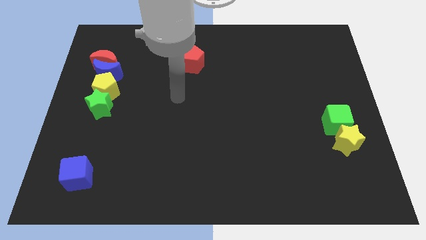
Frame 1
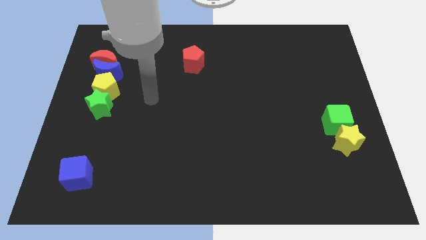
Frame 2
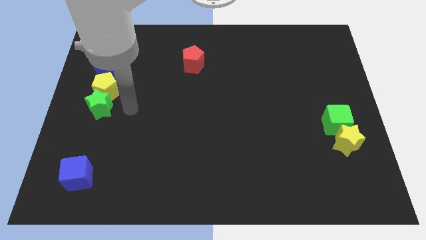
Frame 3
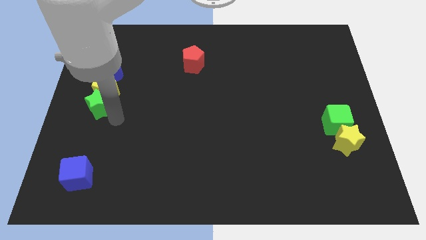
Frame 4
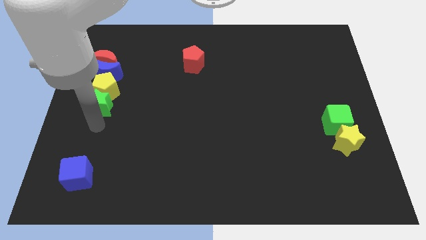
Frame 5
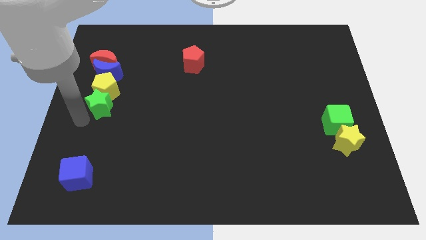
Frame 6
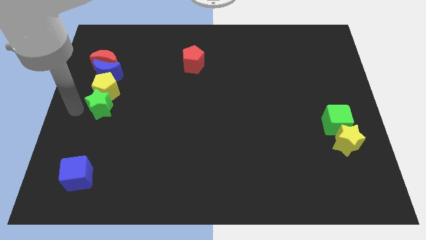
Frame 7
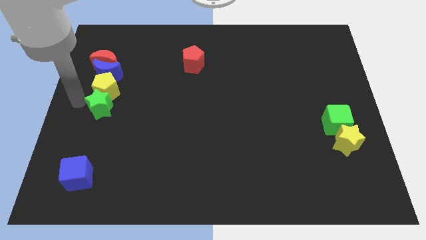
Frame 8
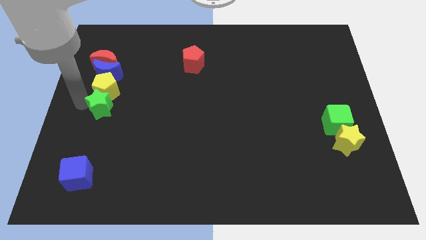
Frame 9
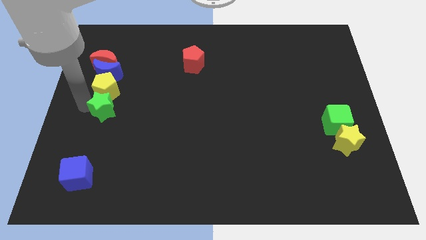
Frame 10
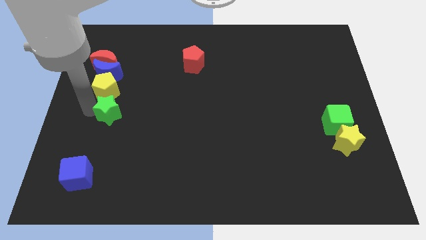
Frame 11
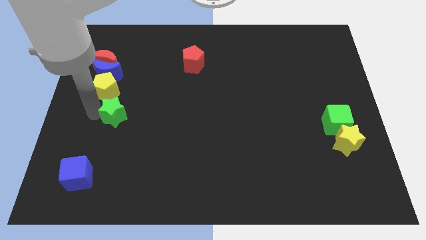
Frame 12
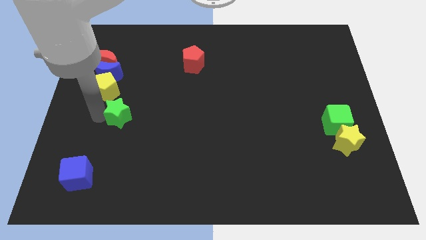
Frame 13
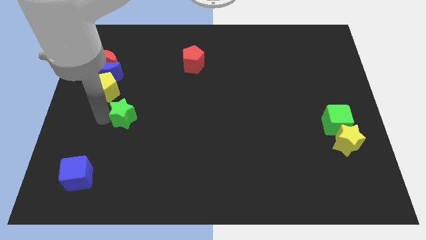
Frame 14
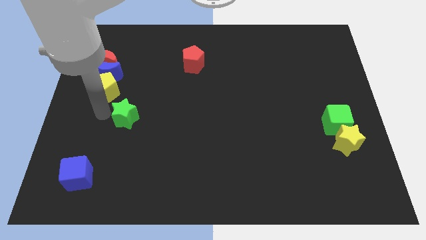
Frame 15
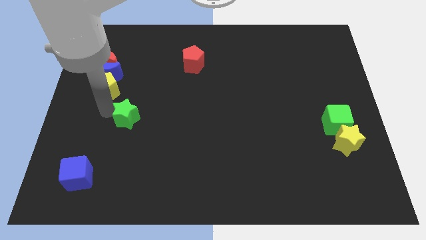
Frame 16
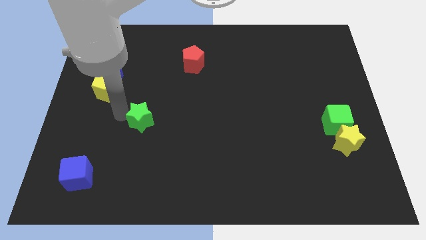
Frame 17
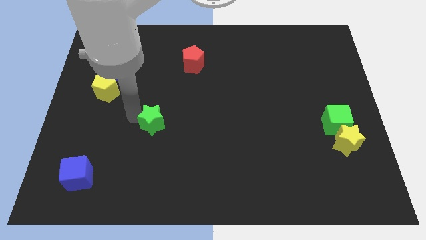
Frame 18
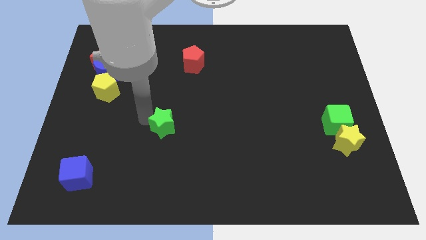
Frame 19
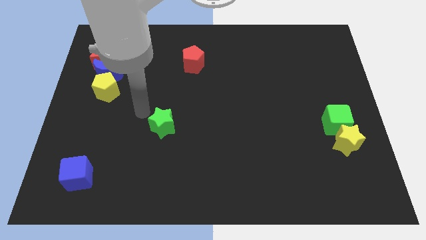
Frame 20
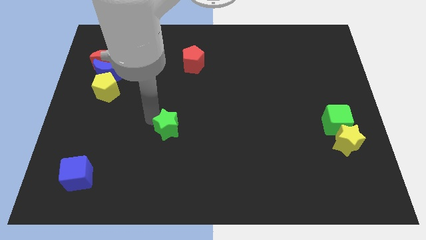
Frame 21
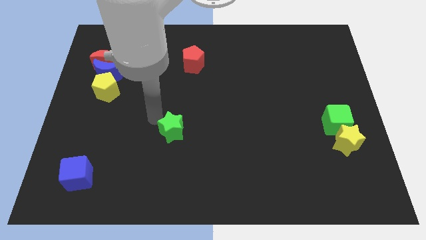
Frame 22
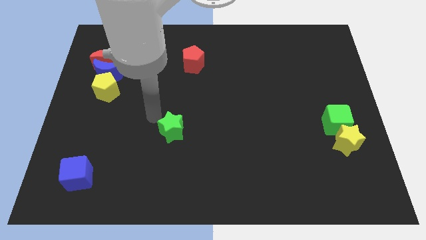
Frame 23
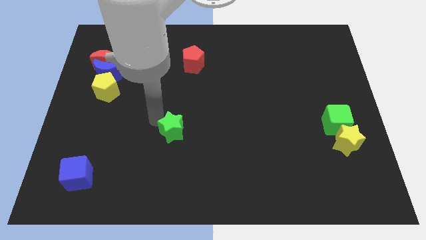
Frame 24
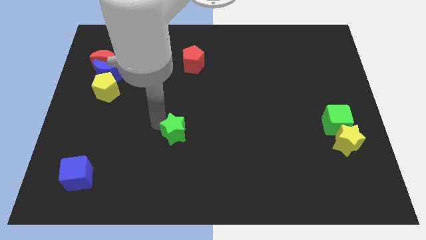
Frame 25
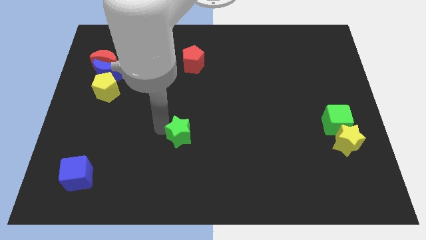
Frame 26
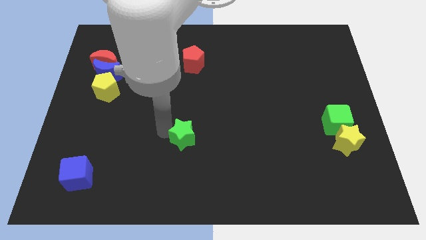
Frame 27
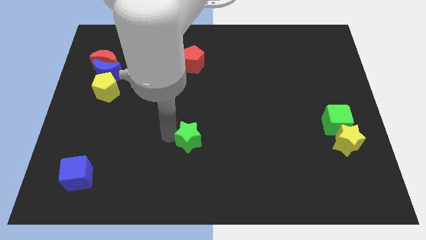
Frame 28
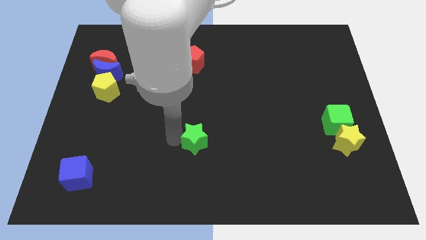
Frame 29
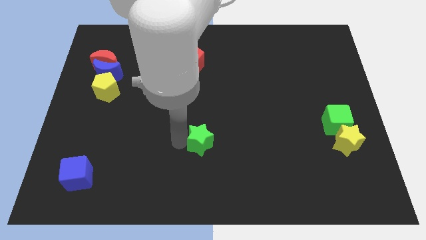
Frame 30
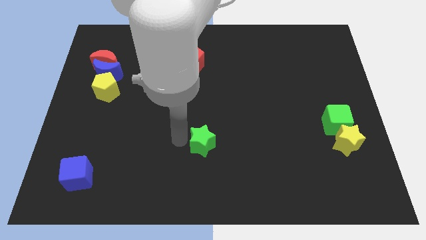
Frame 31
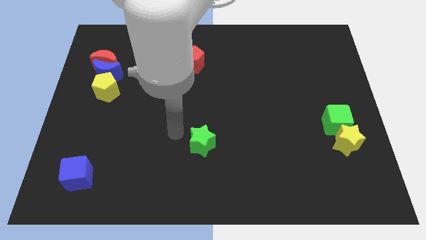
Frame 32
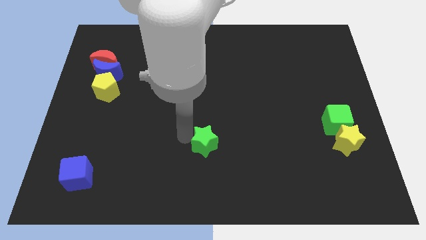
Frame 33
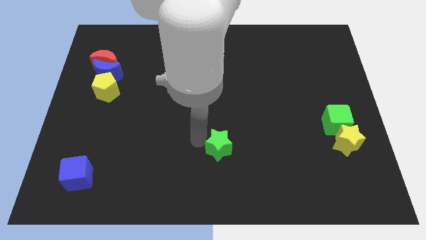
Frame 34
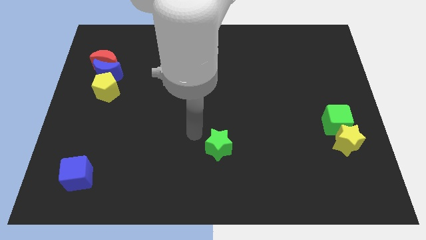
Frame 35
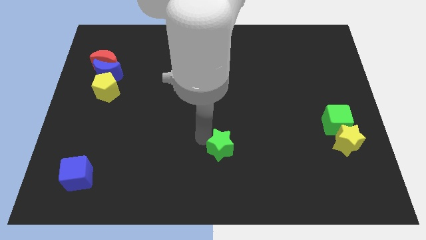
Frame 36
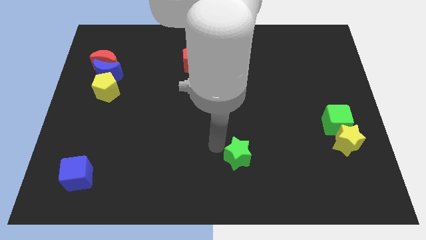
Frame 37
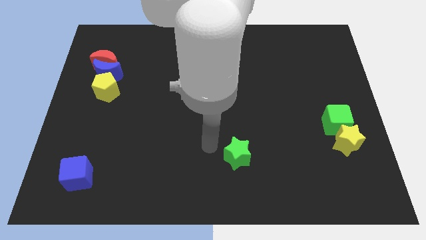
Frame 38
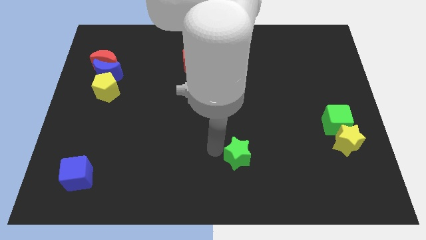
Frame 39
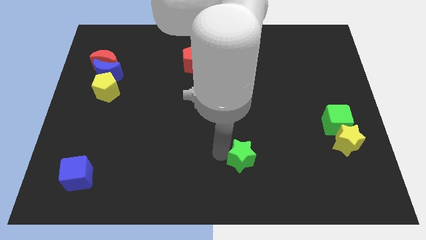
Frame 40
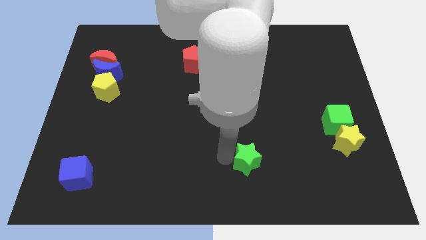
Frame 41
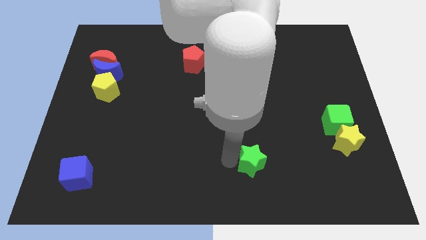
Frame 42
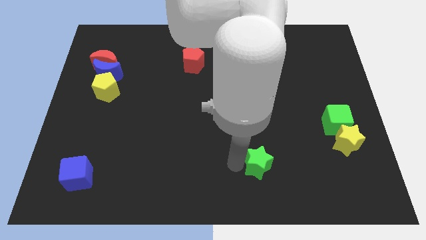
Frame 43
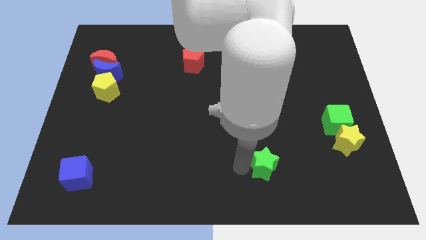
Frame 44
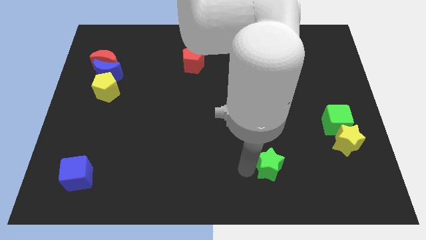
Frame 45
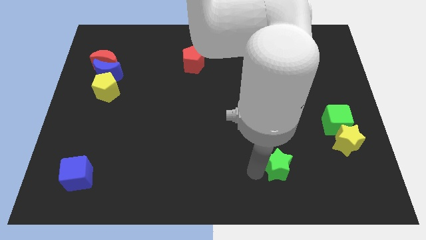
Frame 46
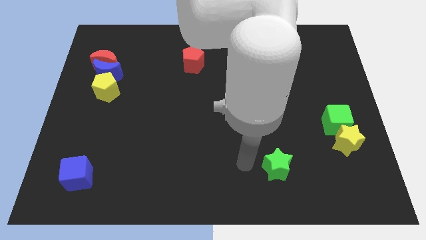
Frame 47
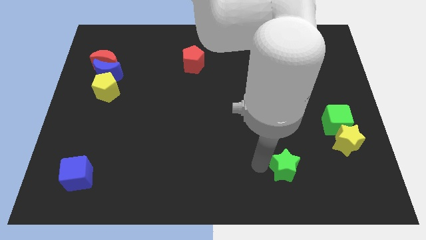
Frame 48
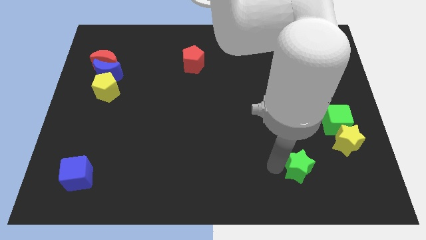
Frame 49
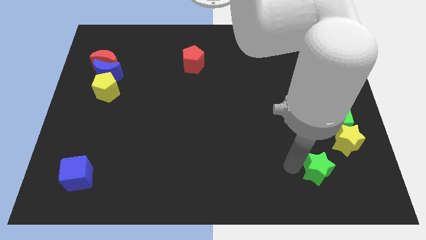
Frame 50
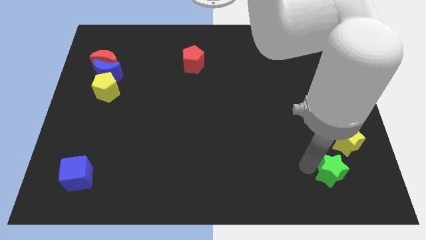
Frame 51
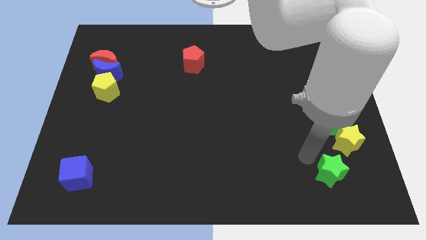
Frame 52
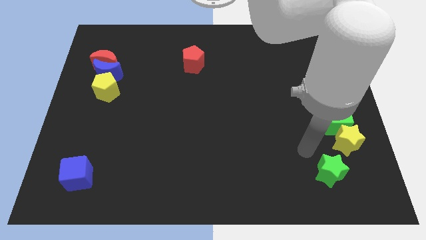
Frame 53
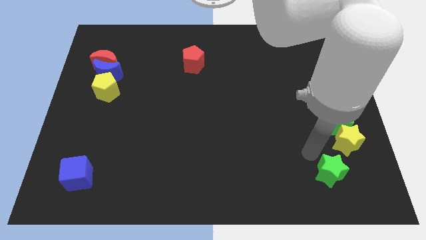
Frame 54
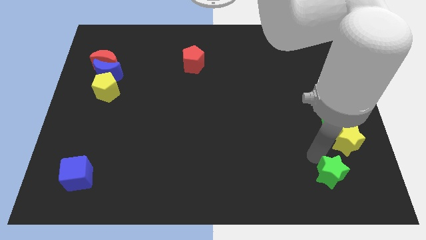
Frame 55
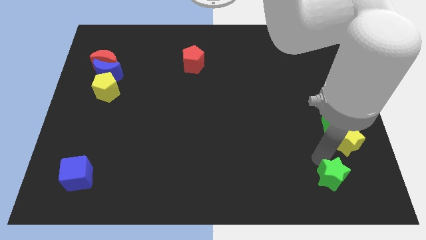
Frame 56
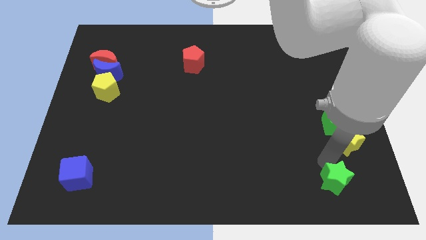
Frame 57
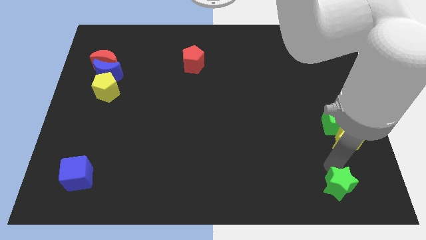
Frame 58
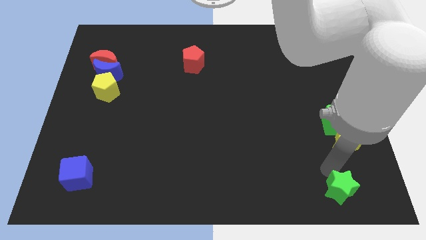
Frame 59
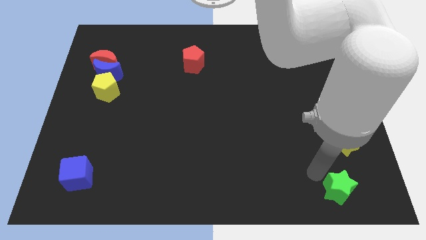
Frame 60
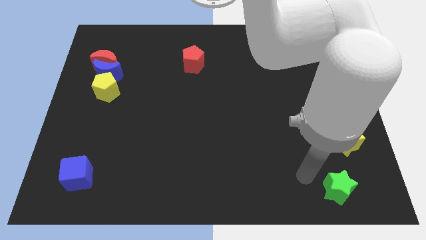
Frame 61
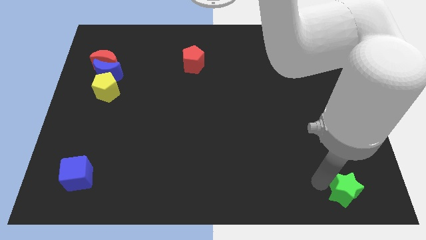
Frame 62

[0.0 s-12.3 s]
slide the green star to the bottom right

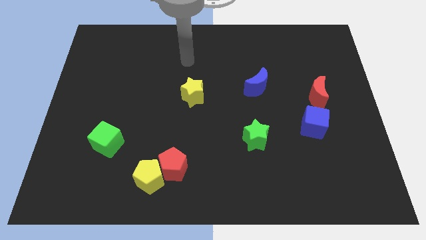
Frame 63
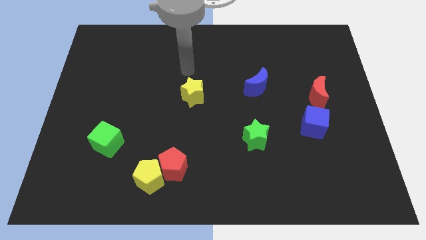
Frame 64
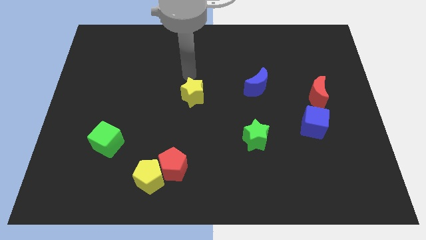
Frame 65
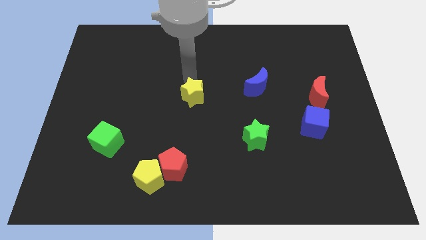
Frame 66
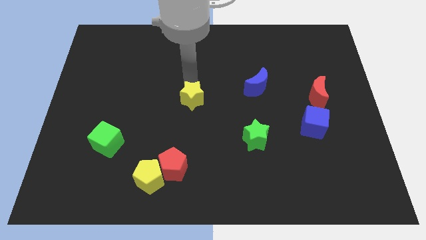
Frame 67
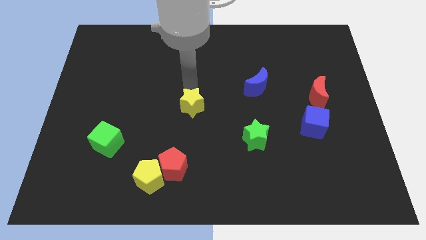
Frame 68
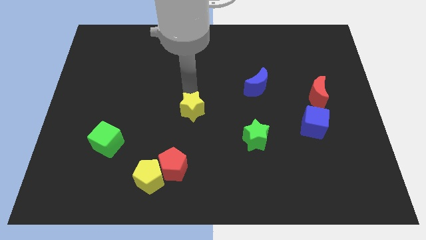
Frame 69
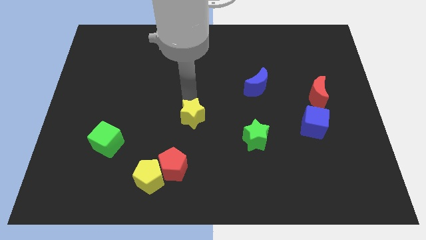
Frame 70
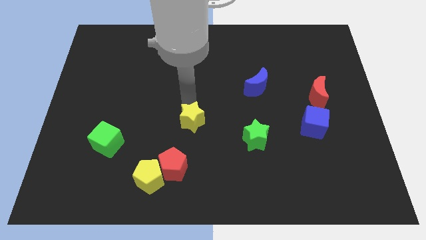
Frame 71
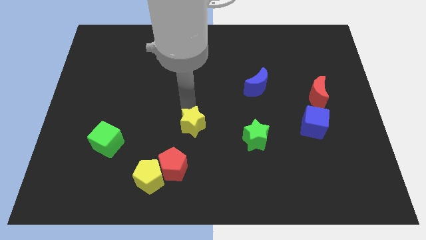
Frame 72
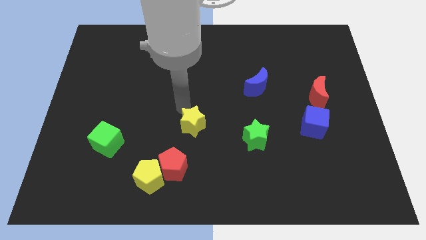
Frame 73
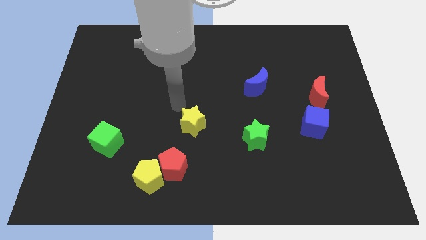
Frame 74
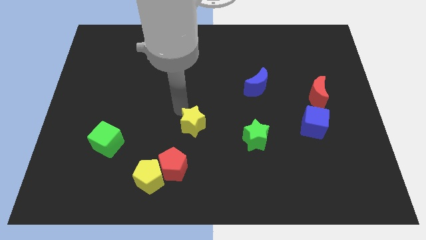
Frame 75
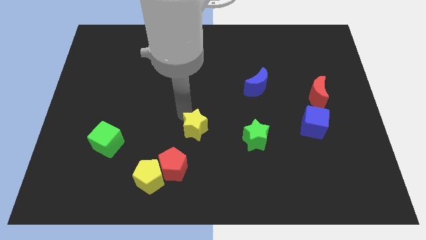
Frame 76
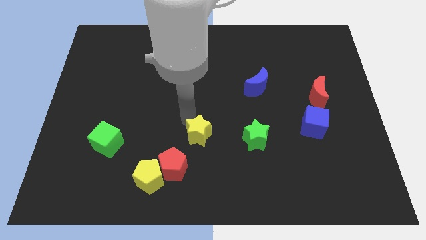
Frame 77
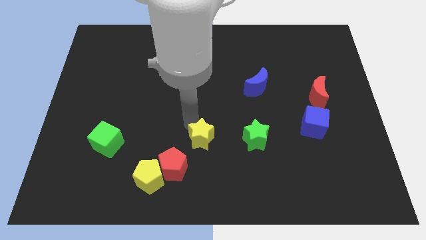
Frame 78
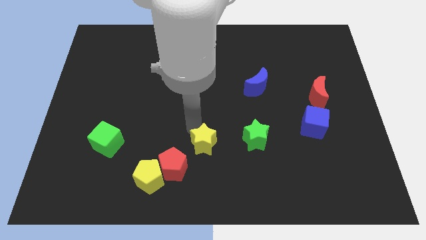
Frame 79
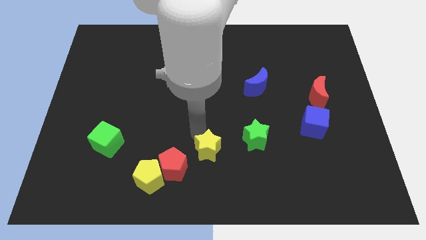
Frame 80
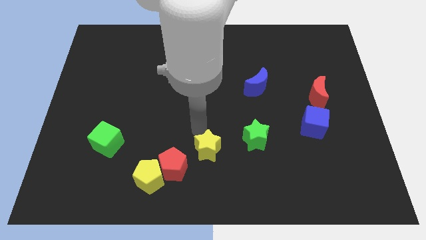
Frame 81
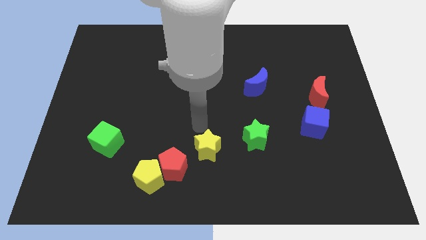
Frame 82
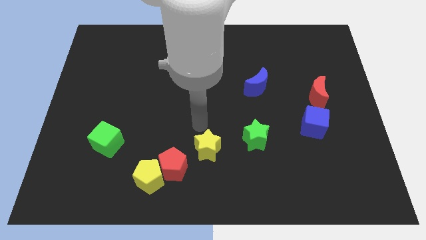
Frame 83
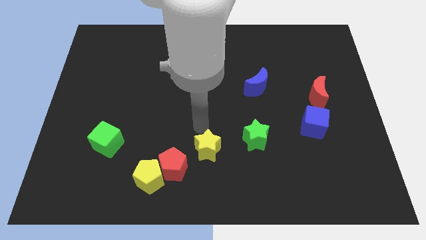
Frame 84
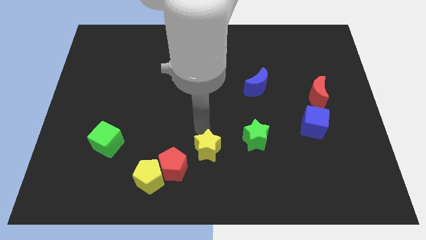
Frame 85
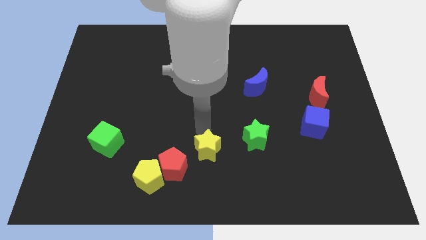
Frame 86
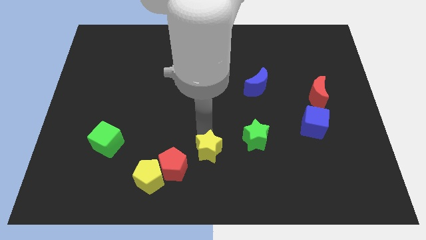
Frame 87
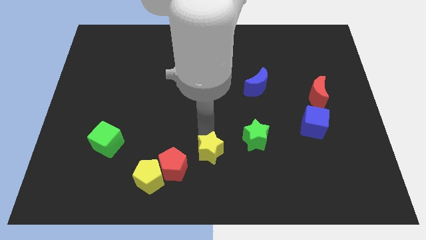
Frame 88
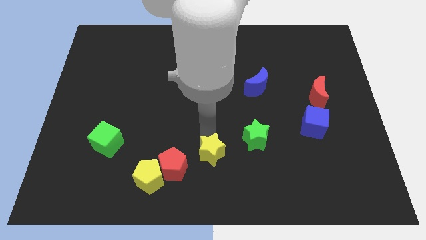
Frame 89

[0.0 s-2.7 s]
put the yellow star to the bottom side
